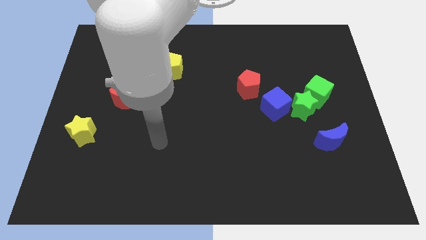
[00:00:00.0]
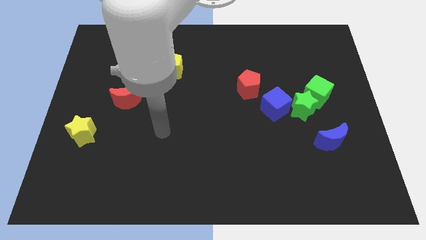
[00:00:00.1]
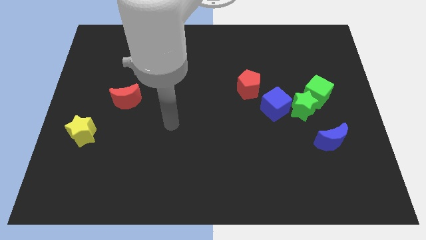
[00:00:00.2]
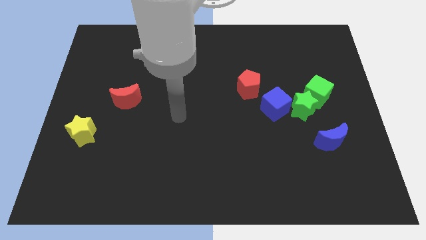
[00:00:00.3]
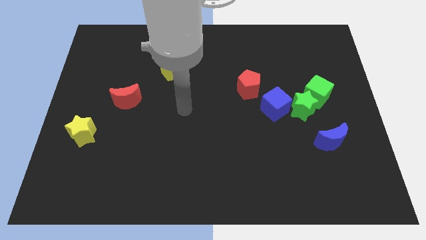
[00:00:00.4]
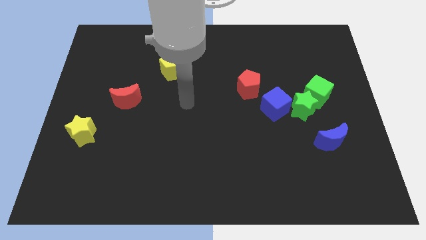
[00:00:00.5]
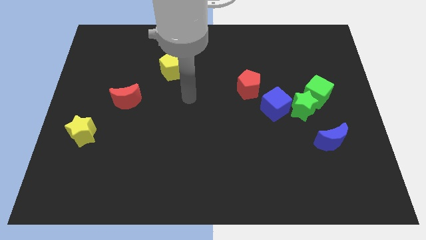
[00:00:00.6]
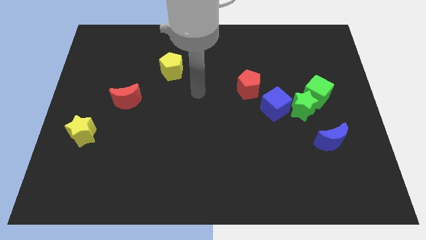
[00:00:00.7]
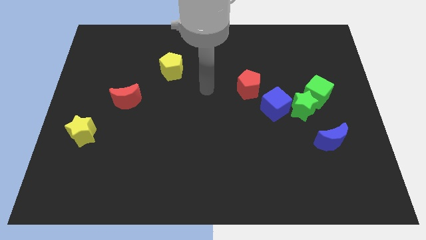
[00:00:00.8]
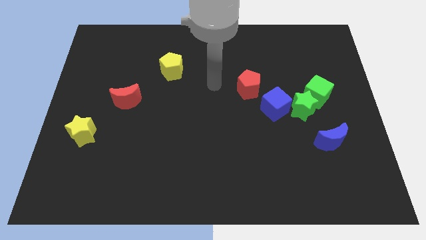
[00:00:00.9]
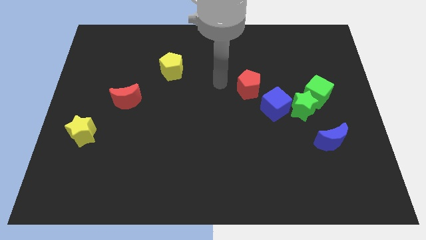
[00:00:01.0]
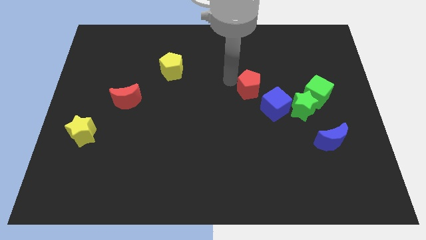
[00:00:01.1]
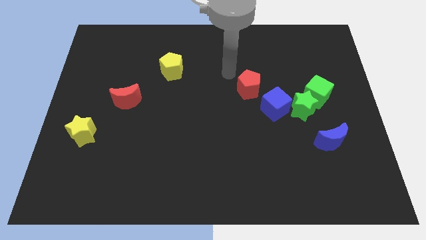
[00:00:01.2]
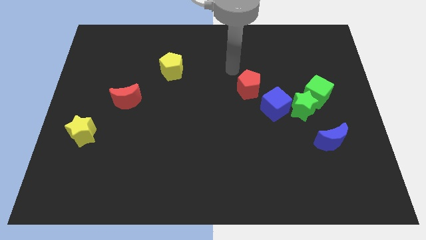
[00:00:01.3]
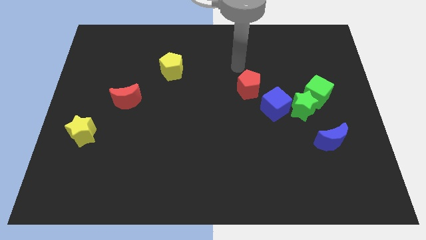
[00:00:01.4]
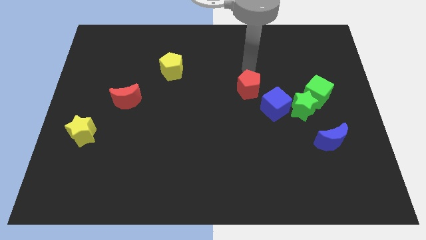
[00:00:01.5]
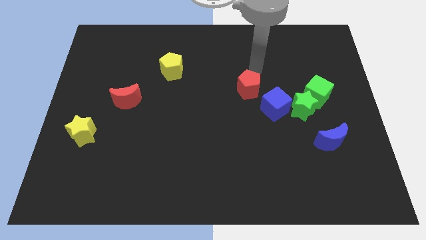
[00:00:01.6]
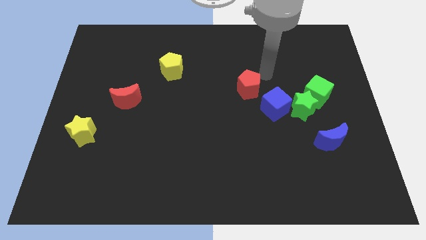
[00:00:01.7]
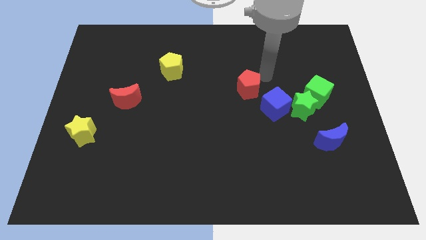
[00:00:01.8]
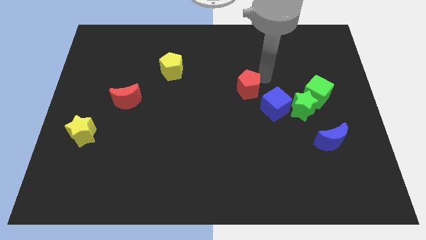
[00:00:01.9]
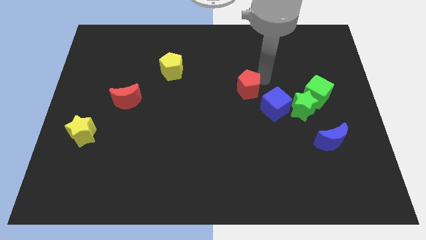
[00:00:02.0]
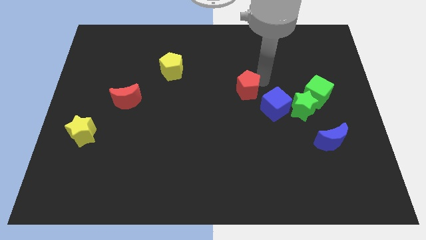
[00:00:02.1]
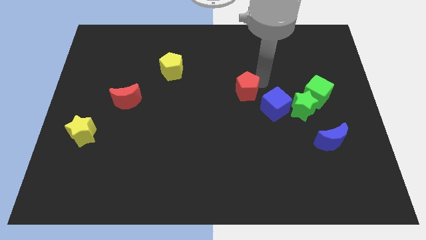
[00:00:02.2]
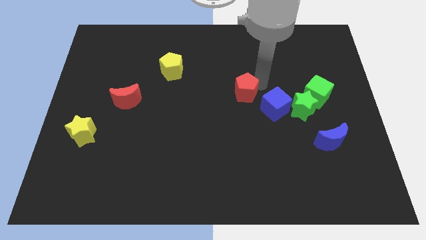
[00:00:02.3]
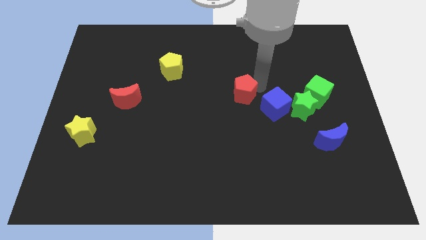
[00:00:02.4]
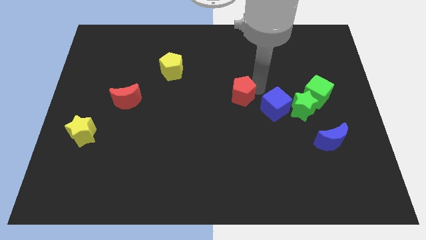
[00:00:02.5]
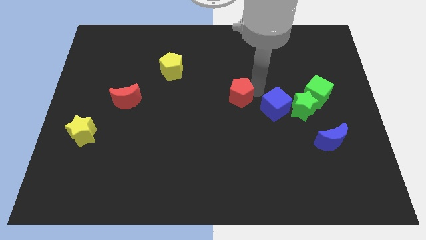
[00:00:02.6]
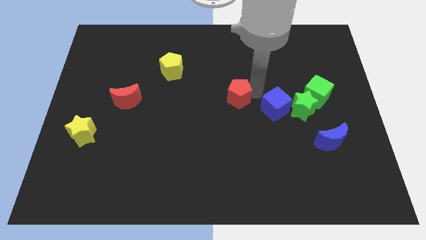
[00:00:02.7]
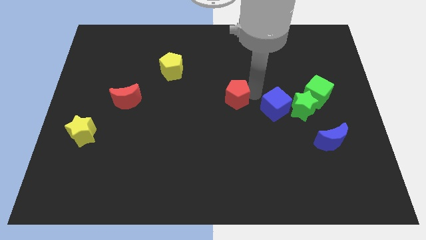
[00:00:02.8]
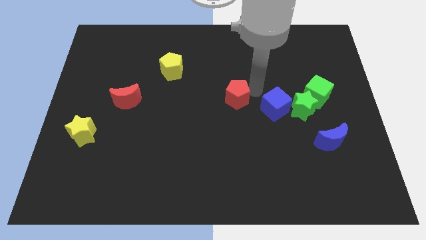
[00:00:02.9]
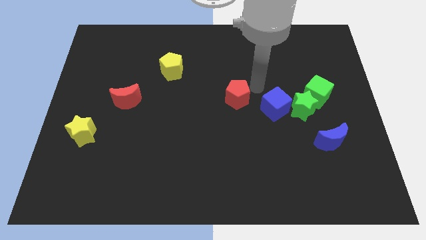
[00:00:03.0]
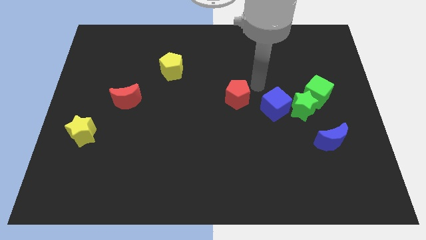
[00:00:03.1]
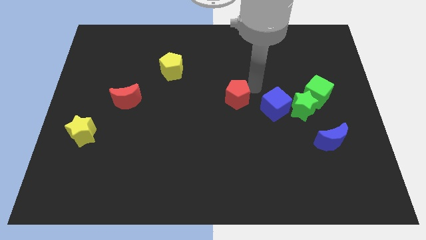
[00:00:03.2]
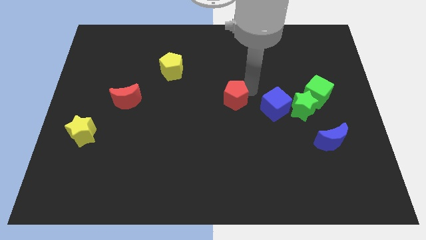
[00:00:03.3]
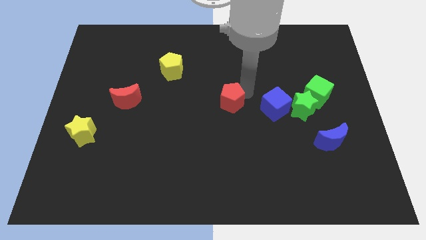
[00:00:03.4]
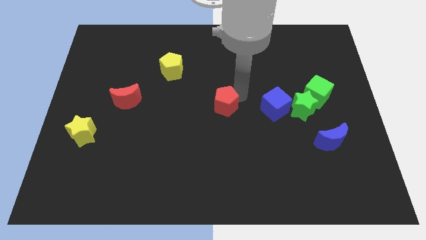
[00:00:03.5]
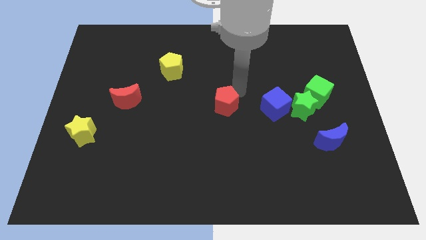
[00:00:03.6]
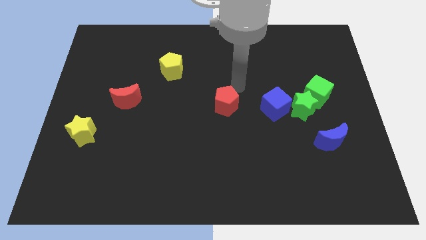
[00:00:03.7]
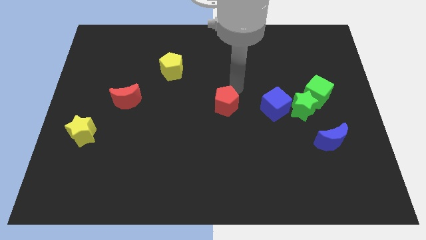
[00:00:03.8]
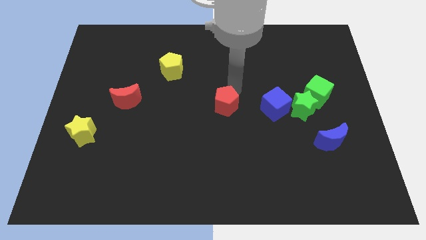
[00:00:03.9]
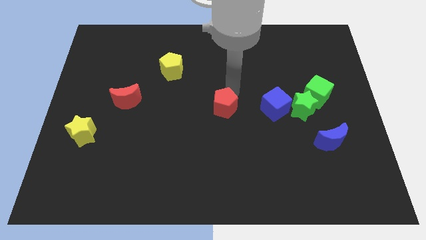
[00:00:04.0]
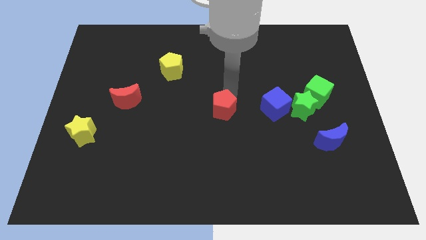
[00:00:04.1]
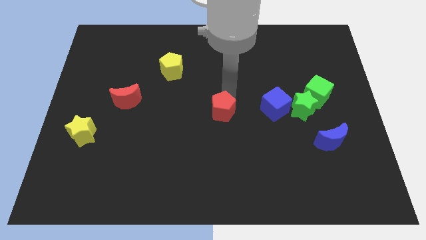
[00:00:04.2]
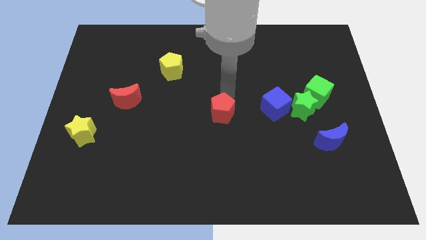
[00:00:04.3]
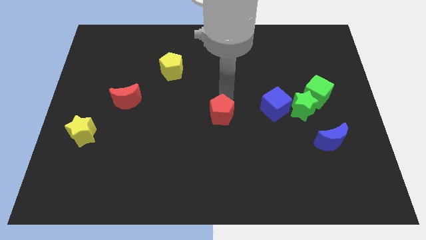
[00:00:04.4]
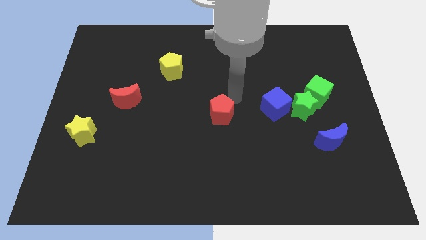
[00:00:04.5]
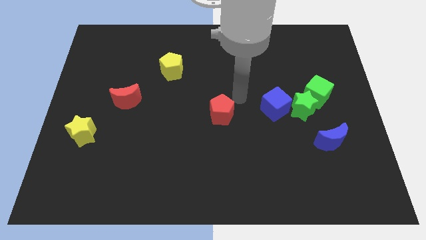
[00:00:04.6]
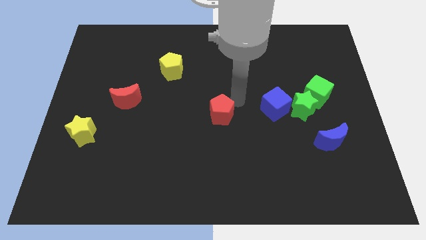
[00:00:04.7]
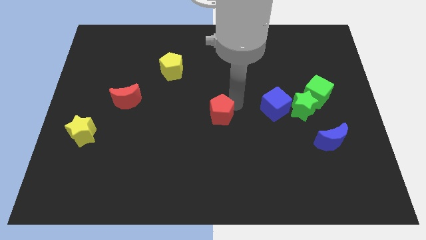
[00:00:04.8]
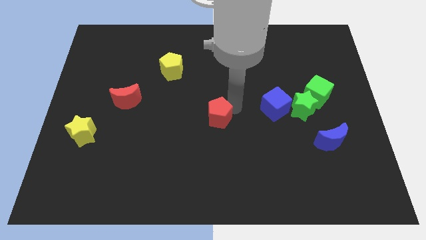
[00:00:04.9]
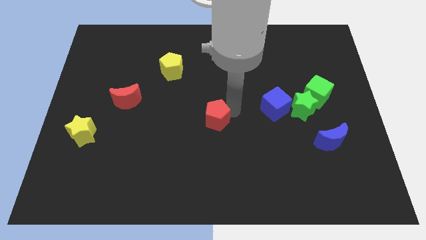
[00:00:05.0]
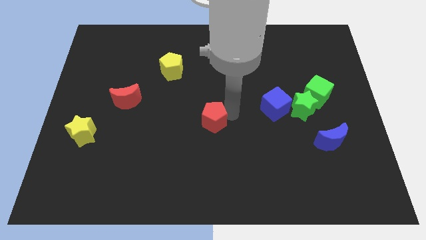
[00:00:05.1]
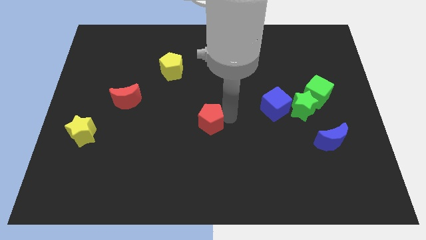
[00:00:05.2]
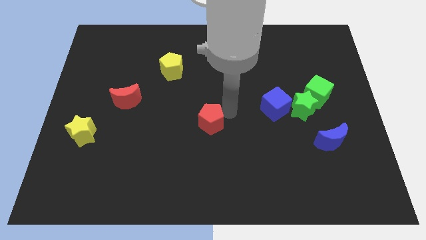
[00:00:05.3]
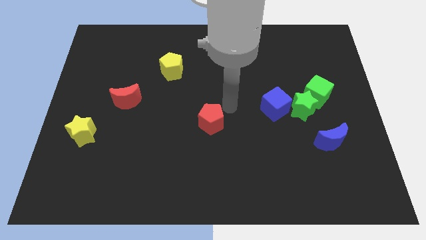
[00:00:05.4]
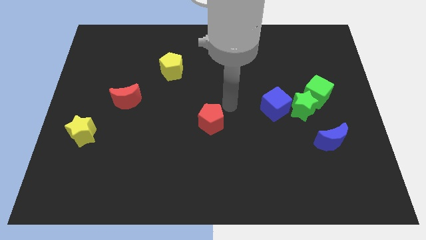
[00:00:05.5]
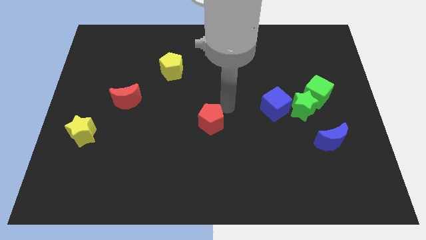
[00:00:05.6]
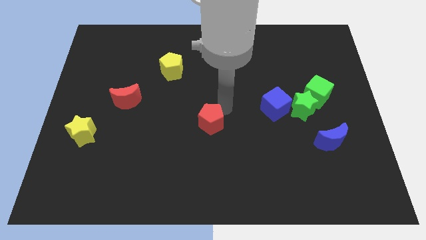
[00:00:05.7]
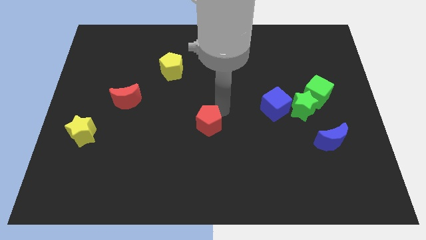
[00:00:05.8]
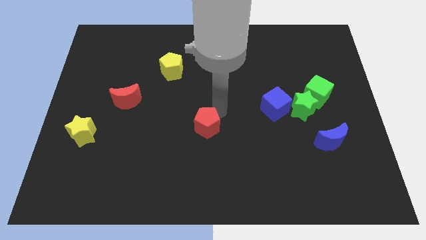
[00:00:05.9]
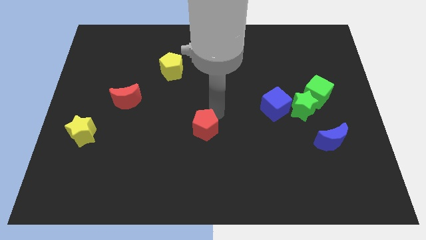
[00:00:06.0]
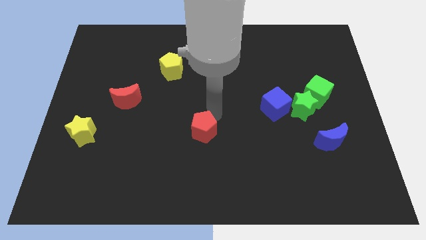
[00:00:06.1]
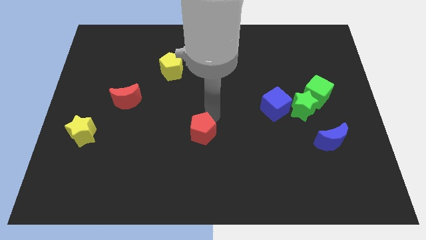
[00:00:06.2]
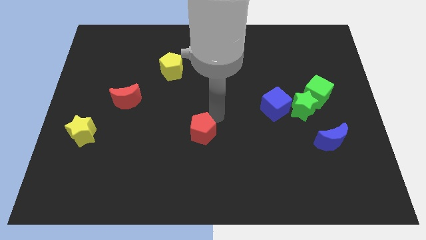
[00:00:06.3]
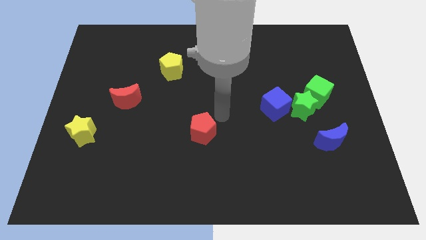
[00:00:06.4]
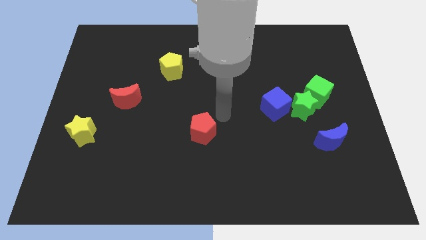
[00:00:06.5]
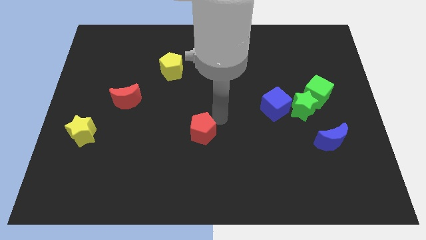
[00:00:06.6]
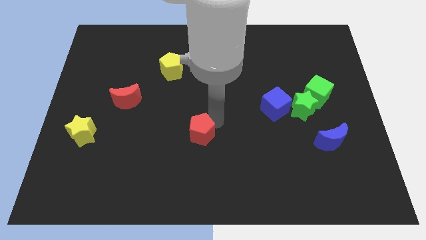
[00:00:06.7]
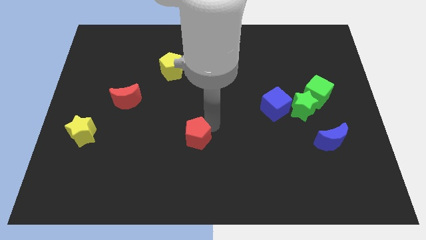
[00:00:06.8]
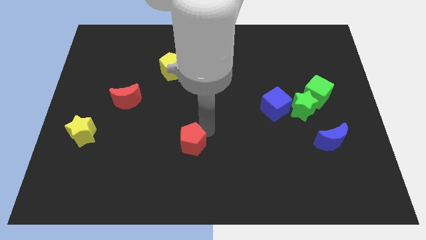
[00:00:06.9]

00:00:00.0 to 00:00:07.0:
move the red pentagon downwards and then left

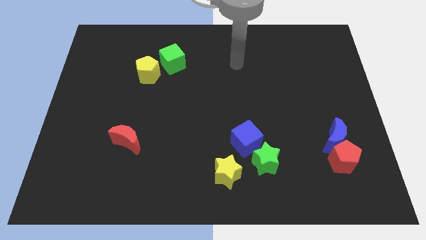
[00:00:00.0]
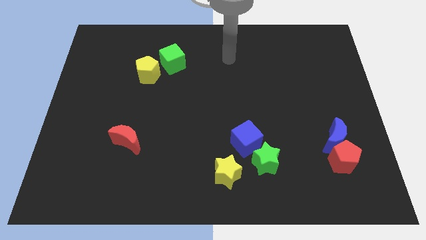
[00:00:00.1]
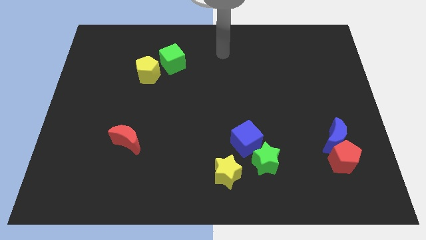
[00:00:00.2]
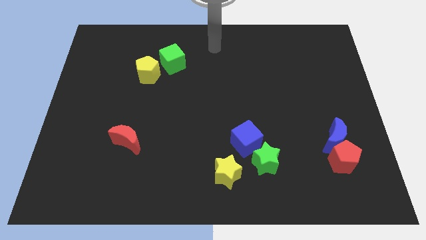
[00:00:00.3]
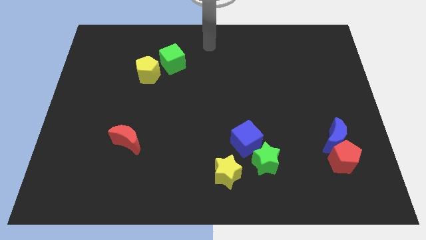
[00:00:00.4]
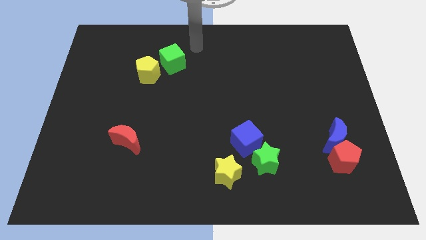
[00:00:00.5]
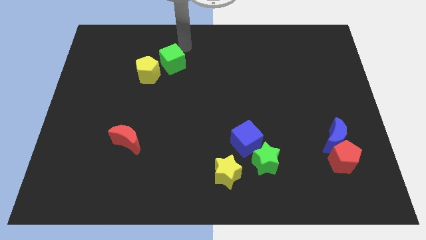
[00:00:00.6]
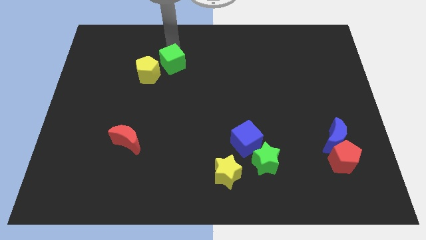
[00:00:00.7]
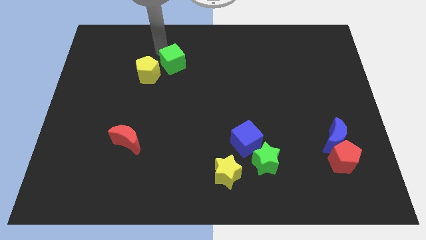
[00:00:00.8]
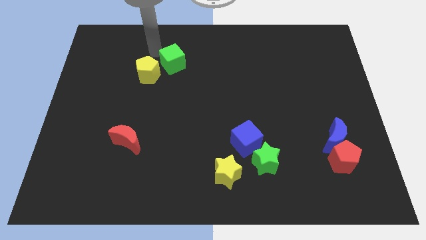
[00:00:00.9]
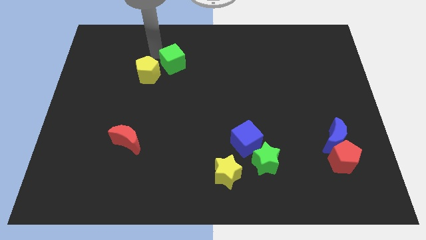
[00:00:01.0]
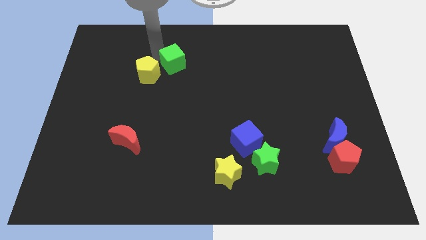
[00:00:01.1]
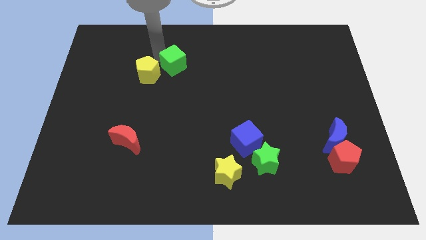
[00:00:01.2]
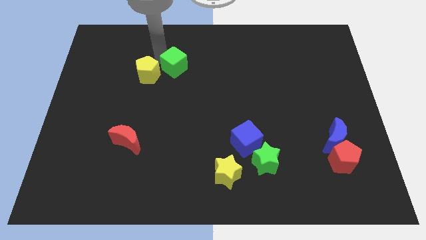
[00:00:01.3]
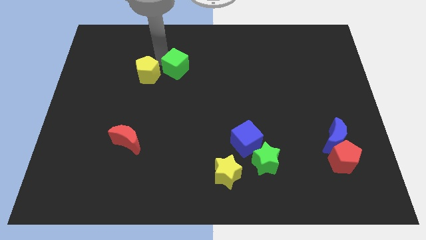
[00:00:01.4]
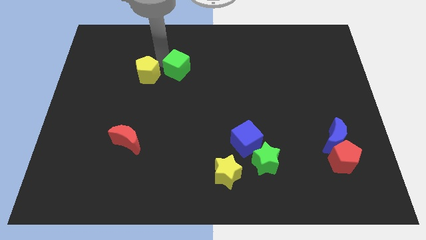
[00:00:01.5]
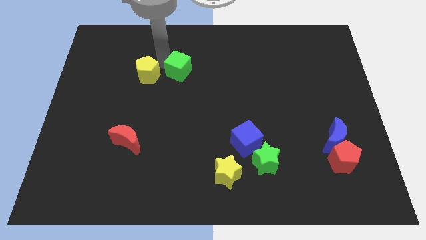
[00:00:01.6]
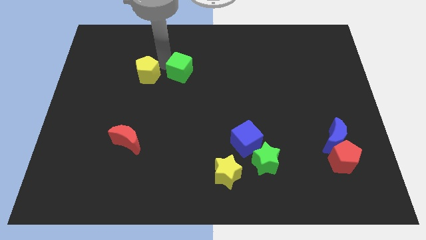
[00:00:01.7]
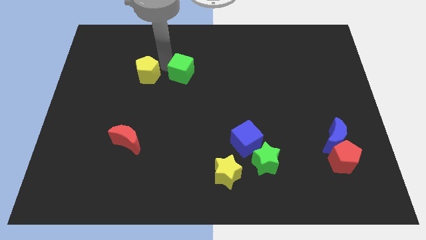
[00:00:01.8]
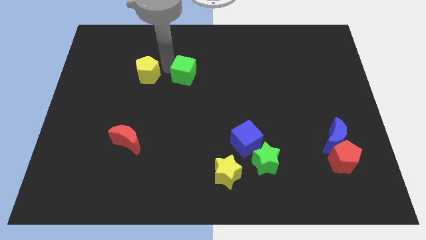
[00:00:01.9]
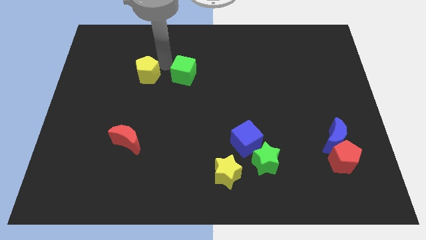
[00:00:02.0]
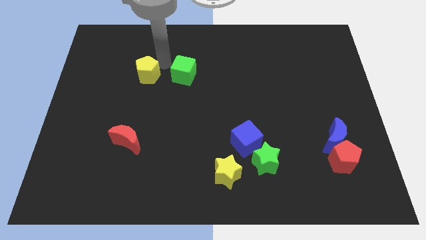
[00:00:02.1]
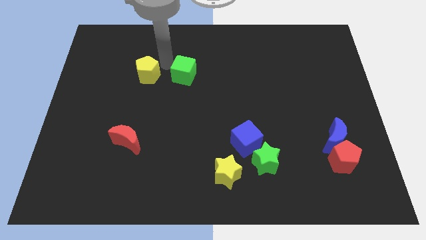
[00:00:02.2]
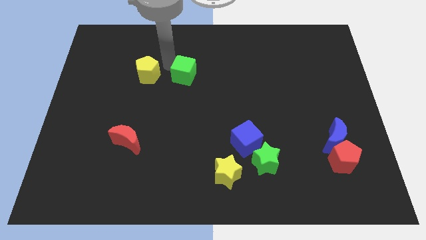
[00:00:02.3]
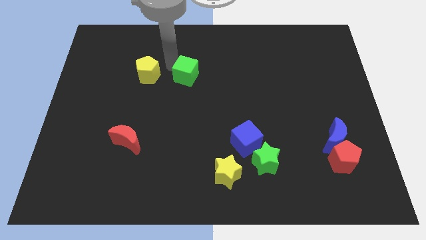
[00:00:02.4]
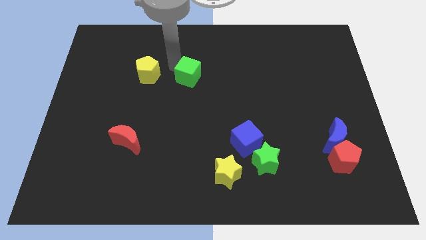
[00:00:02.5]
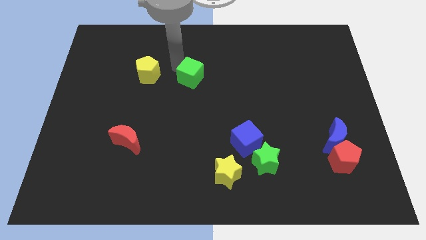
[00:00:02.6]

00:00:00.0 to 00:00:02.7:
slightly push the green cube downwards and to the right
